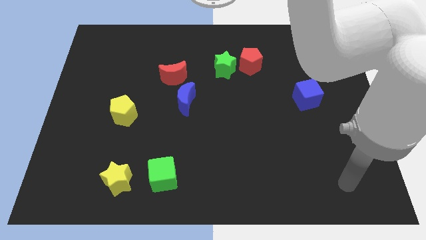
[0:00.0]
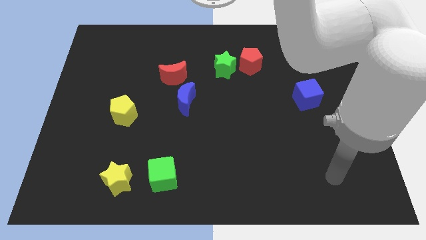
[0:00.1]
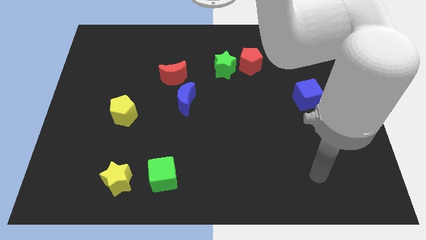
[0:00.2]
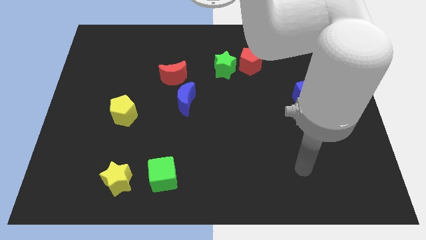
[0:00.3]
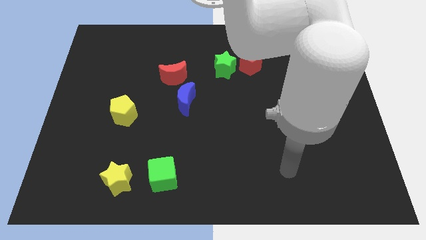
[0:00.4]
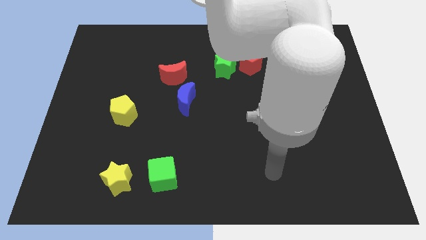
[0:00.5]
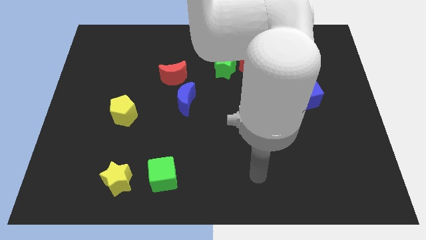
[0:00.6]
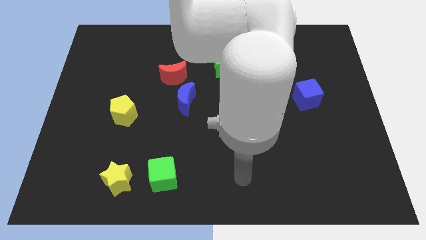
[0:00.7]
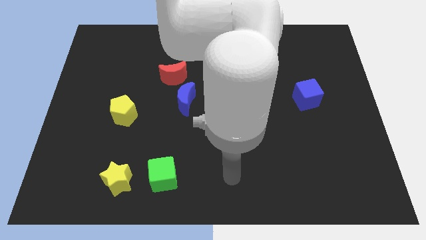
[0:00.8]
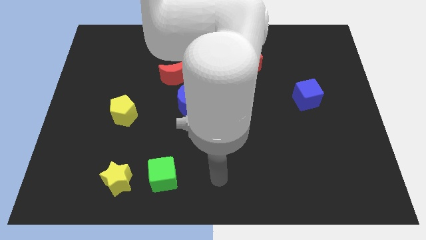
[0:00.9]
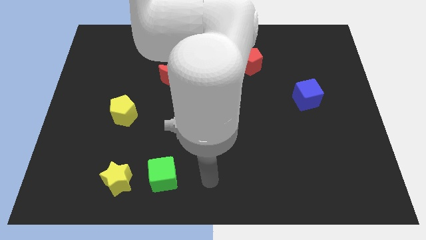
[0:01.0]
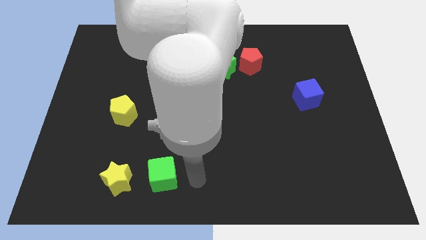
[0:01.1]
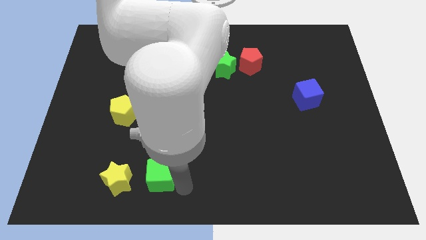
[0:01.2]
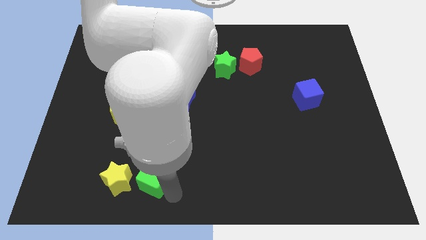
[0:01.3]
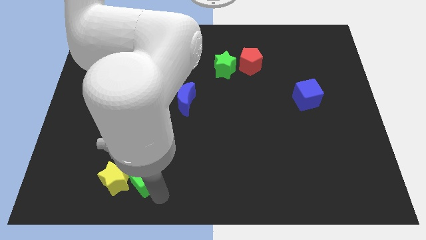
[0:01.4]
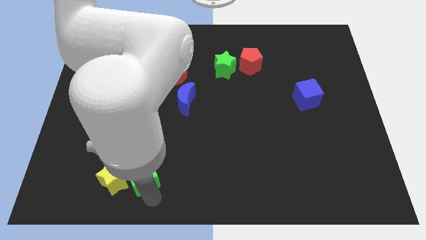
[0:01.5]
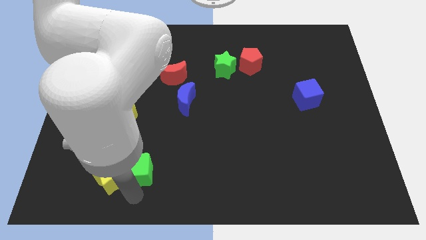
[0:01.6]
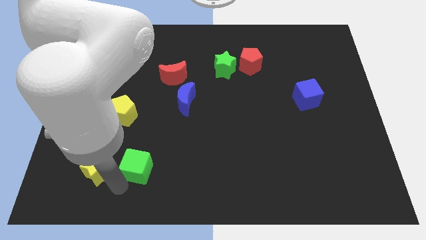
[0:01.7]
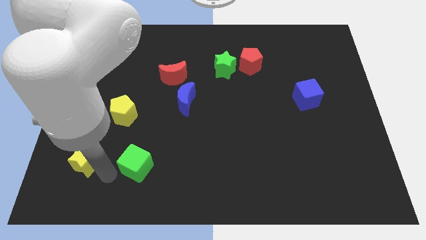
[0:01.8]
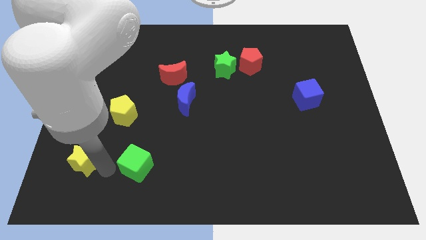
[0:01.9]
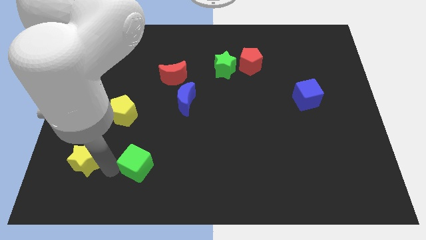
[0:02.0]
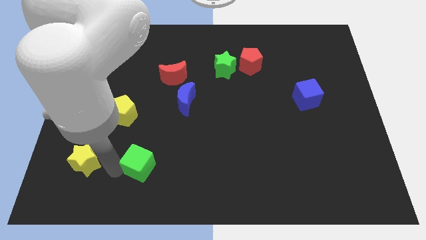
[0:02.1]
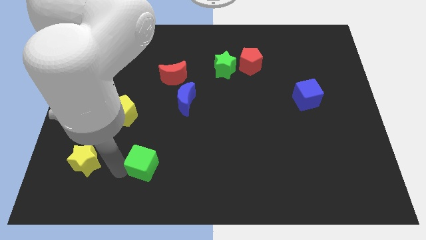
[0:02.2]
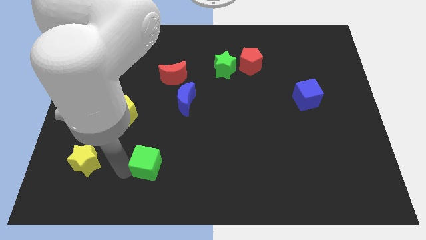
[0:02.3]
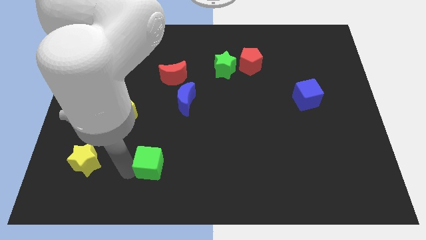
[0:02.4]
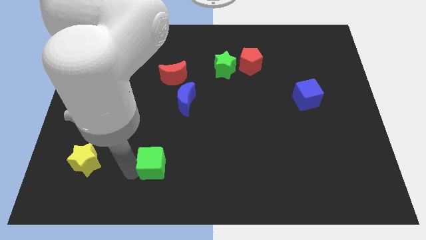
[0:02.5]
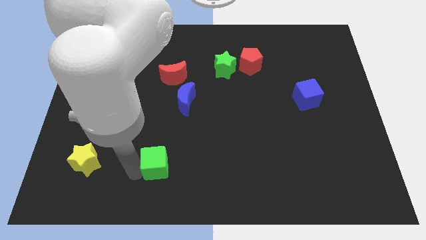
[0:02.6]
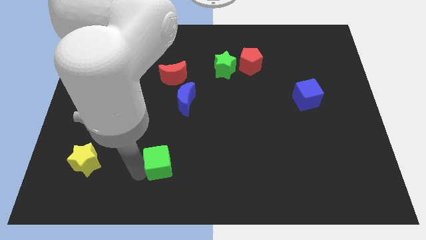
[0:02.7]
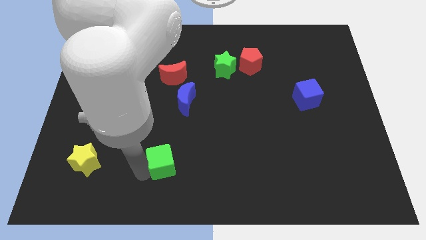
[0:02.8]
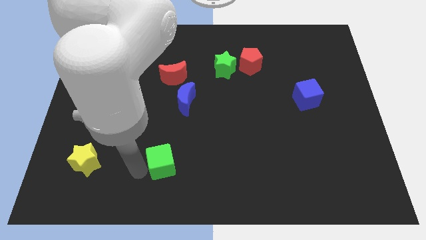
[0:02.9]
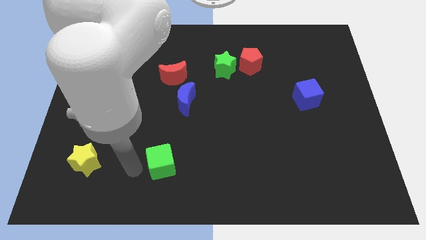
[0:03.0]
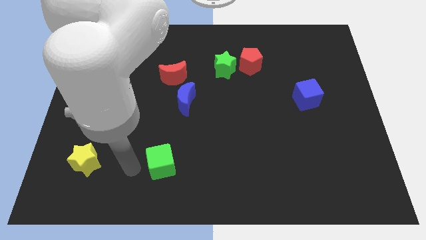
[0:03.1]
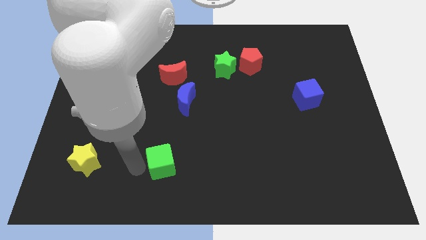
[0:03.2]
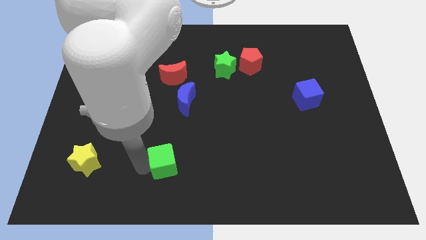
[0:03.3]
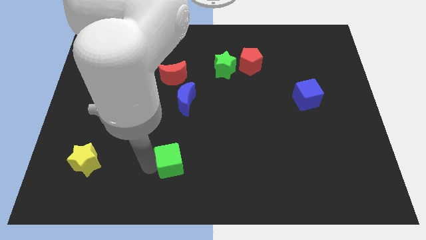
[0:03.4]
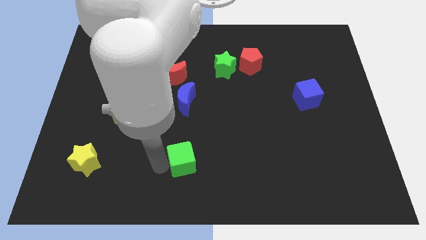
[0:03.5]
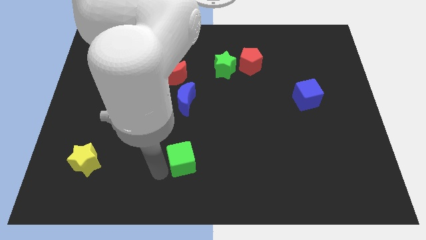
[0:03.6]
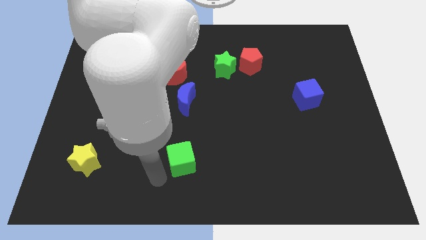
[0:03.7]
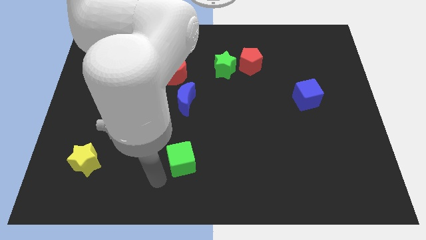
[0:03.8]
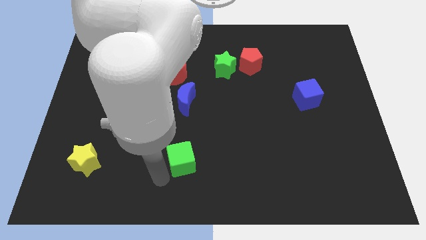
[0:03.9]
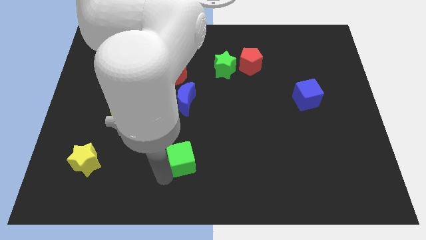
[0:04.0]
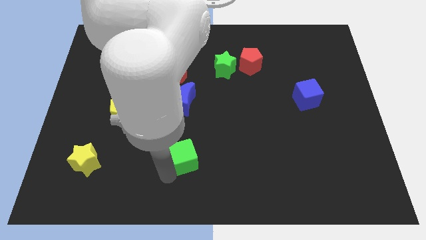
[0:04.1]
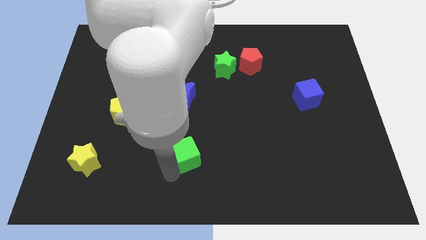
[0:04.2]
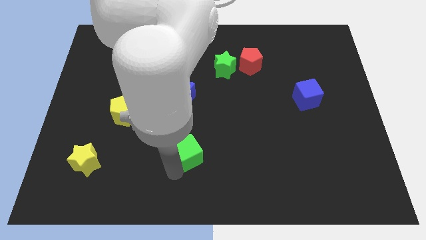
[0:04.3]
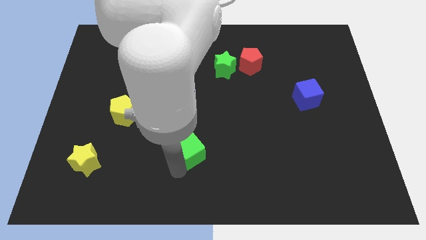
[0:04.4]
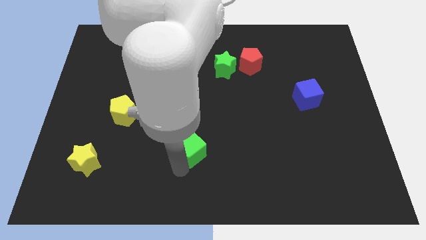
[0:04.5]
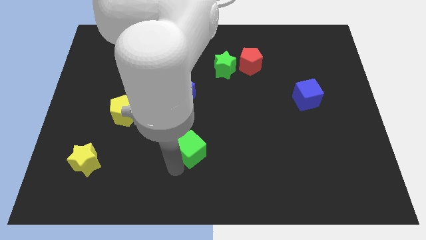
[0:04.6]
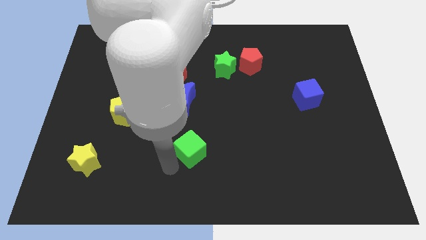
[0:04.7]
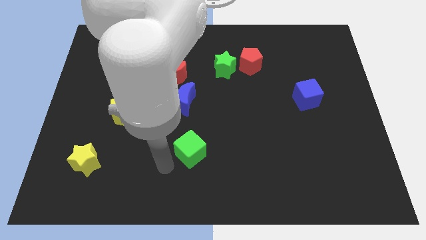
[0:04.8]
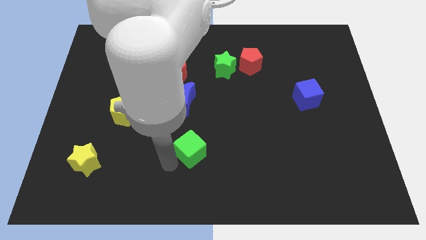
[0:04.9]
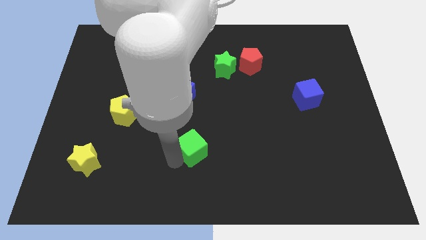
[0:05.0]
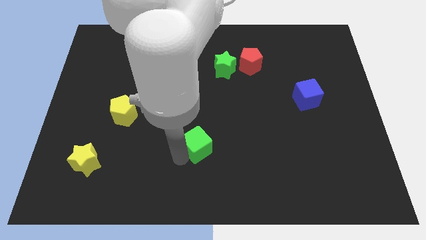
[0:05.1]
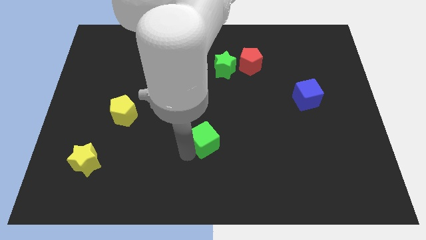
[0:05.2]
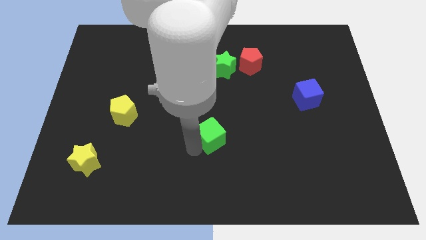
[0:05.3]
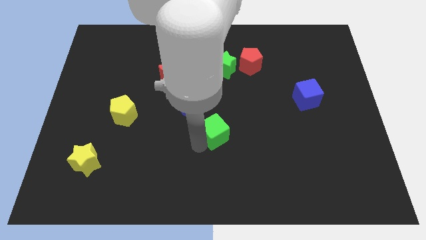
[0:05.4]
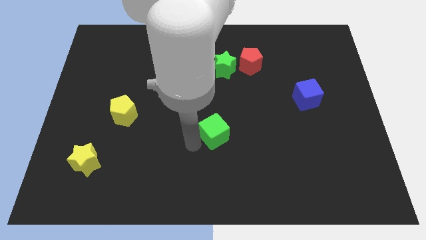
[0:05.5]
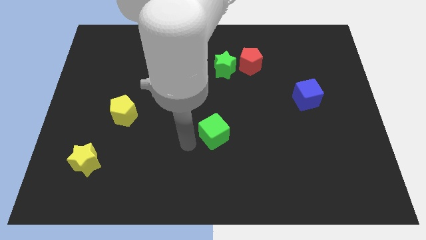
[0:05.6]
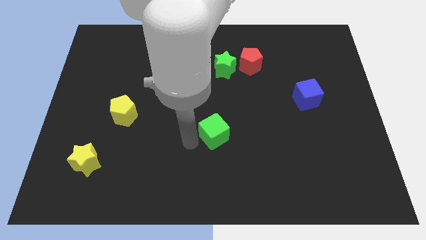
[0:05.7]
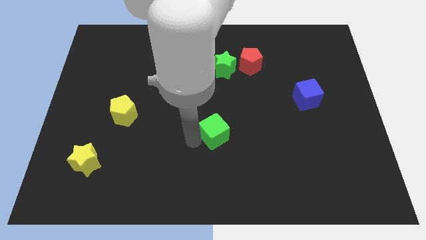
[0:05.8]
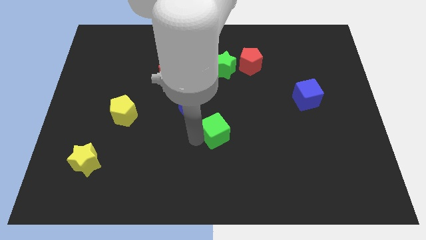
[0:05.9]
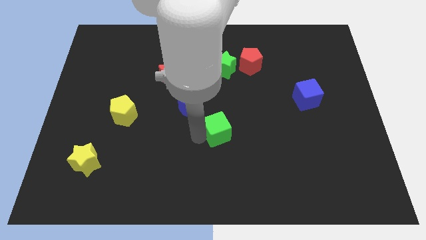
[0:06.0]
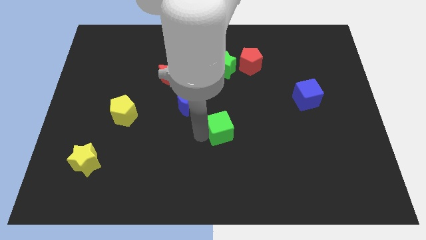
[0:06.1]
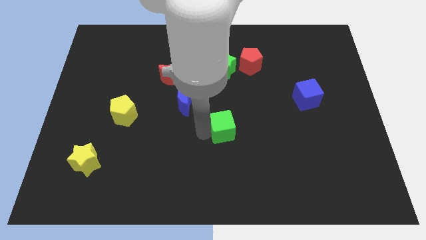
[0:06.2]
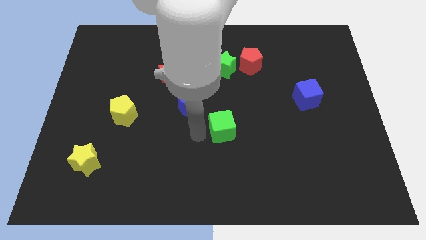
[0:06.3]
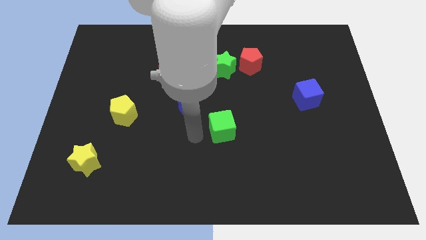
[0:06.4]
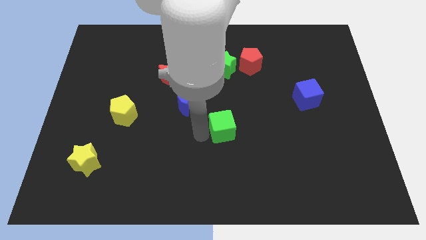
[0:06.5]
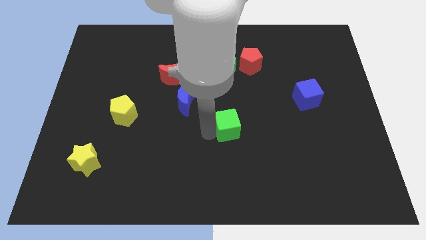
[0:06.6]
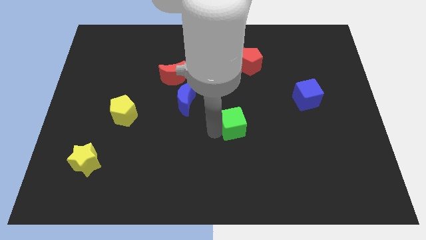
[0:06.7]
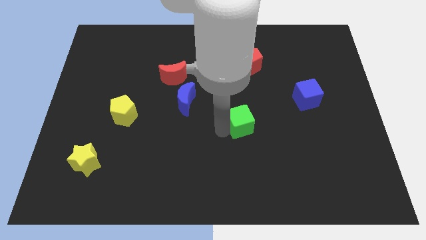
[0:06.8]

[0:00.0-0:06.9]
slide the green cube upwards and to the right diagonally

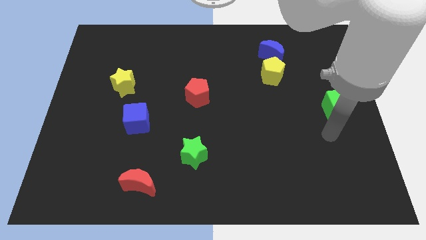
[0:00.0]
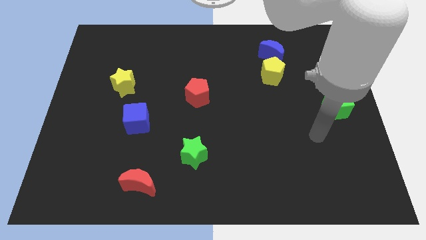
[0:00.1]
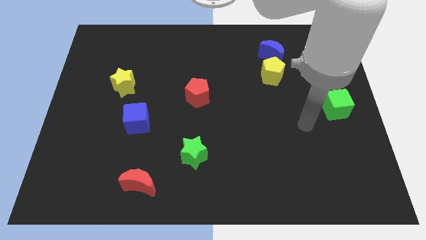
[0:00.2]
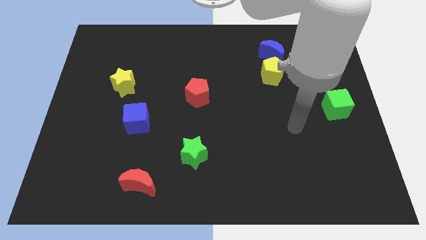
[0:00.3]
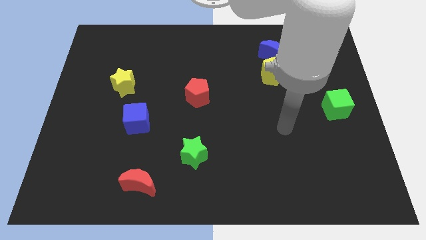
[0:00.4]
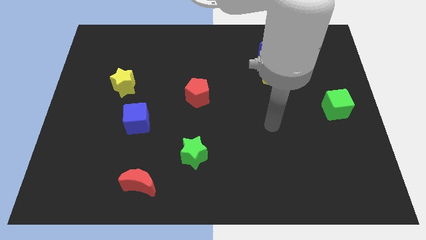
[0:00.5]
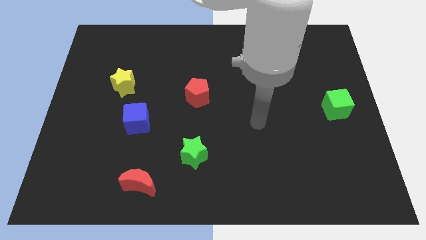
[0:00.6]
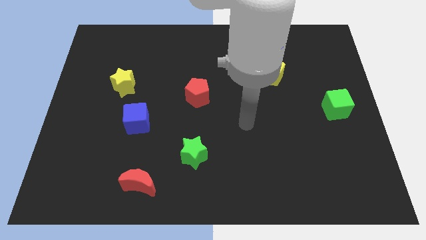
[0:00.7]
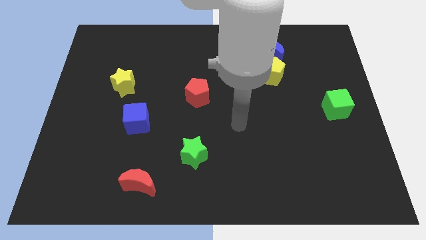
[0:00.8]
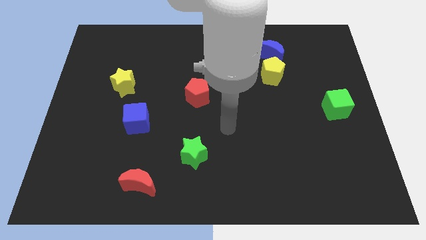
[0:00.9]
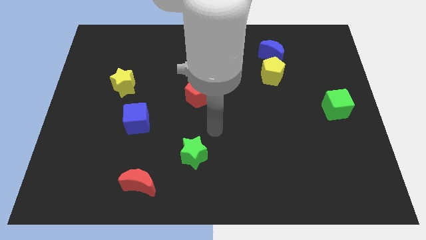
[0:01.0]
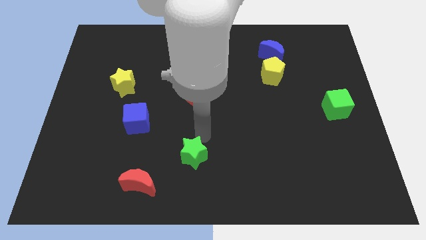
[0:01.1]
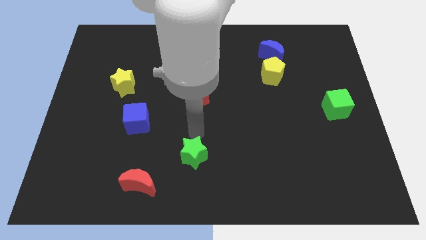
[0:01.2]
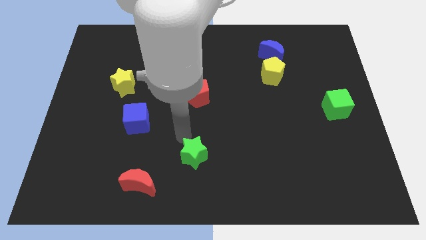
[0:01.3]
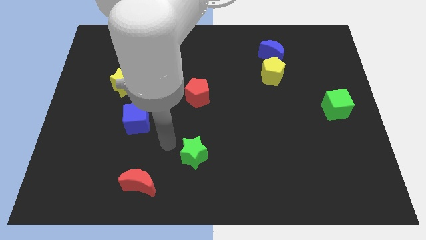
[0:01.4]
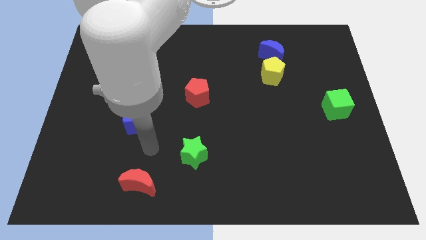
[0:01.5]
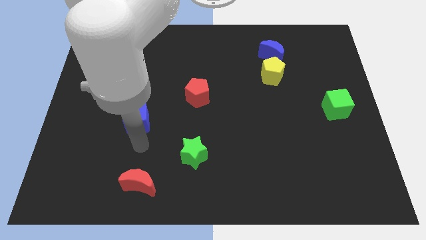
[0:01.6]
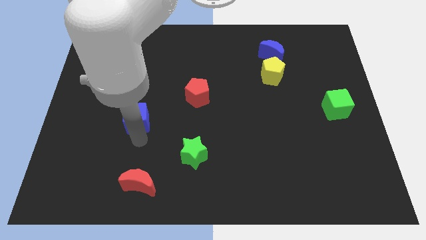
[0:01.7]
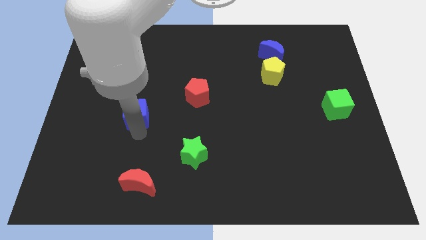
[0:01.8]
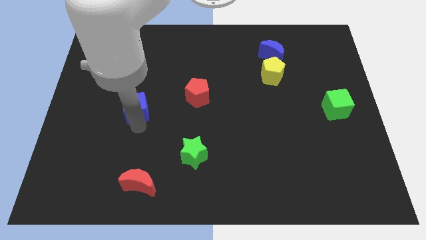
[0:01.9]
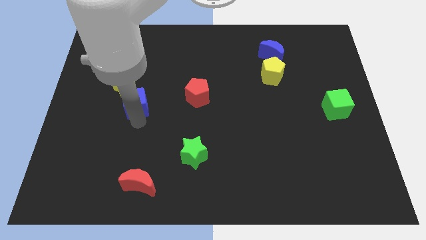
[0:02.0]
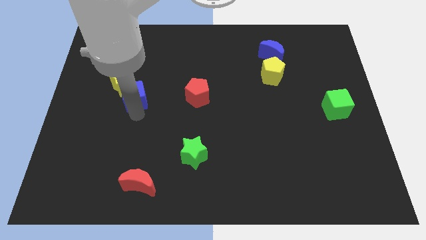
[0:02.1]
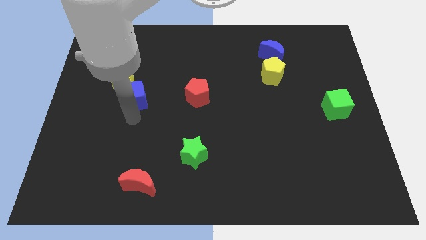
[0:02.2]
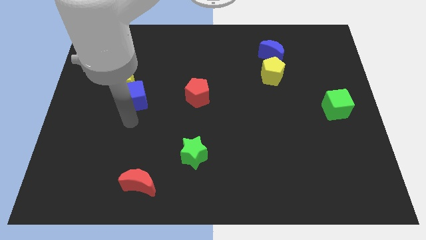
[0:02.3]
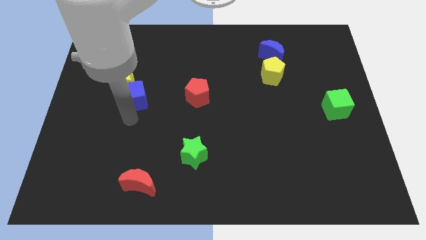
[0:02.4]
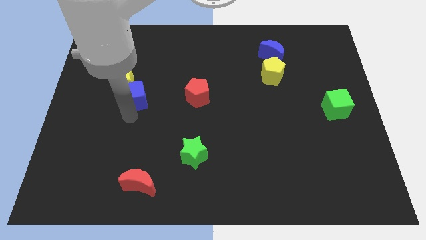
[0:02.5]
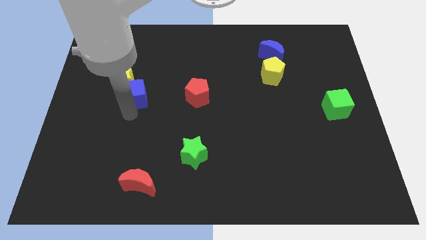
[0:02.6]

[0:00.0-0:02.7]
push the blue cube a bit upwards
